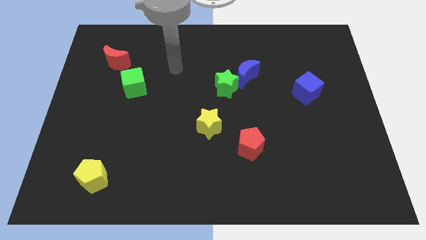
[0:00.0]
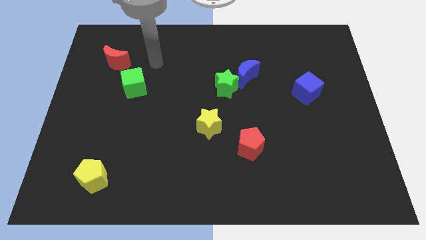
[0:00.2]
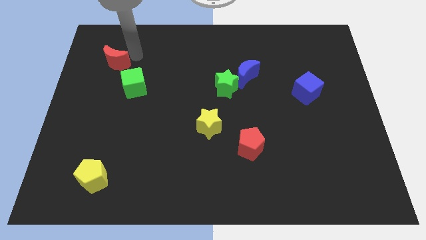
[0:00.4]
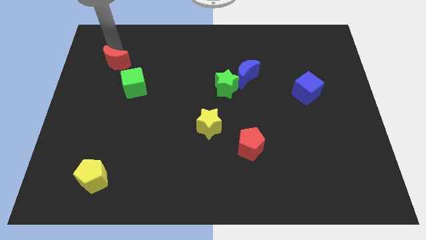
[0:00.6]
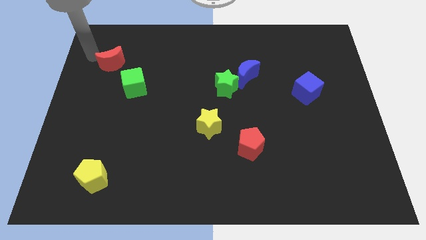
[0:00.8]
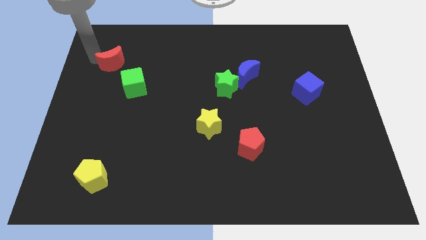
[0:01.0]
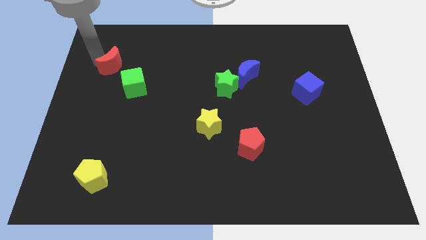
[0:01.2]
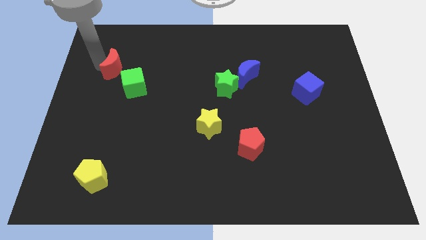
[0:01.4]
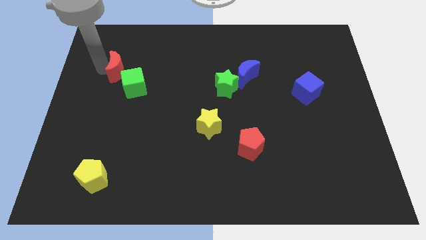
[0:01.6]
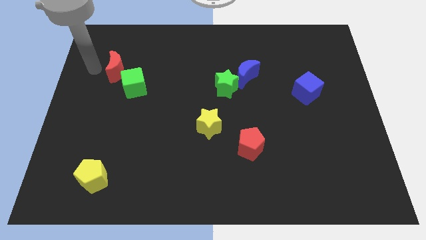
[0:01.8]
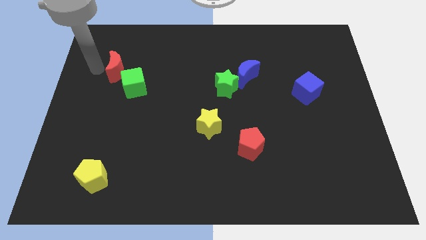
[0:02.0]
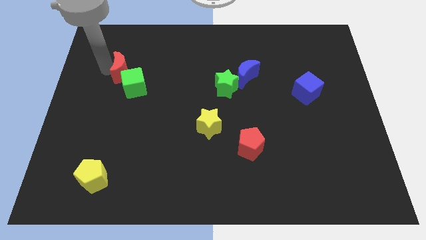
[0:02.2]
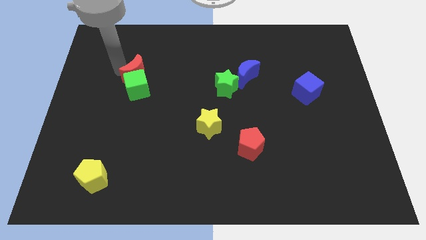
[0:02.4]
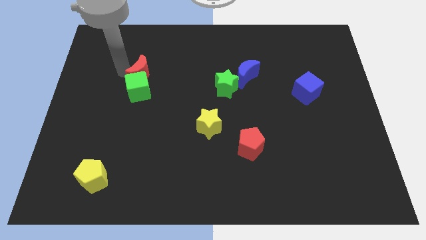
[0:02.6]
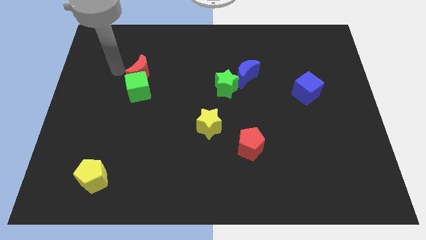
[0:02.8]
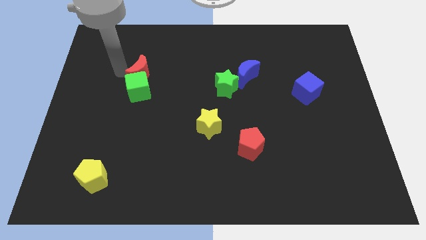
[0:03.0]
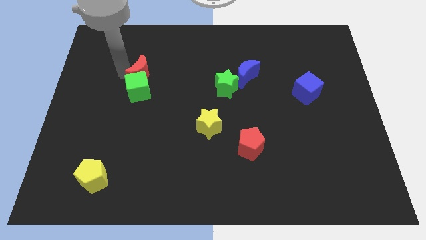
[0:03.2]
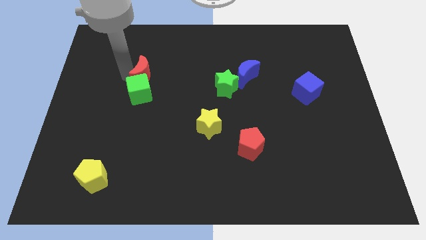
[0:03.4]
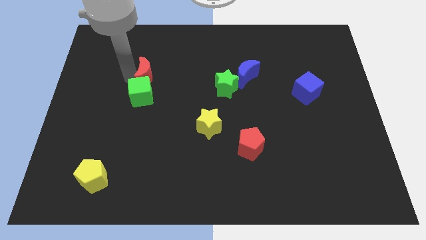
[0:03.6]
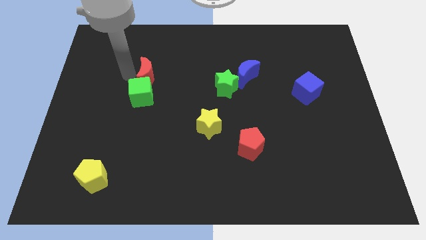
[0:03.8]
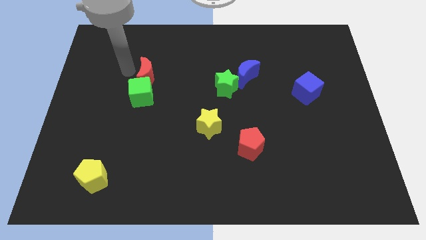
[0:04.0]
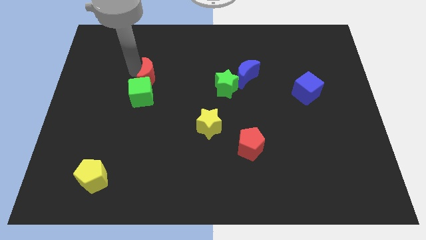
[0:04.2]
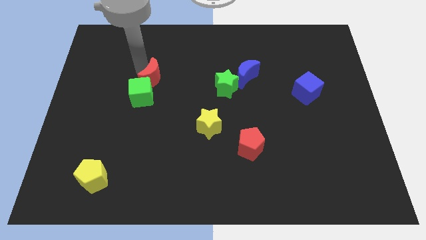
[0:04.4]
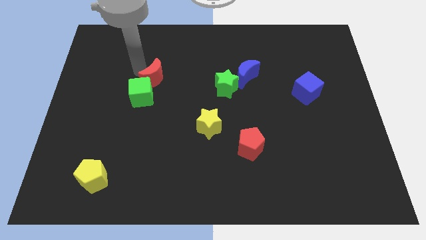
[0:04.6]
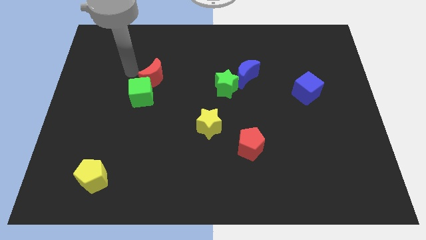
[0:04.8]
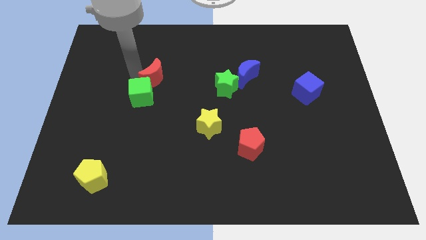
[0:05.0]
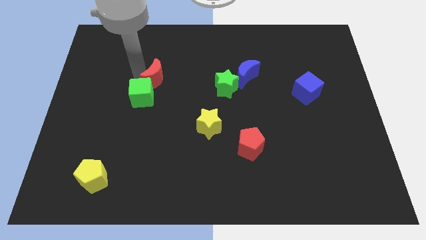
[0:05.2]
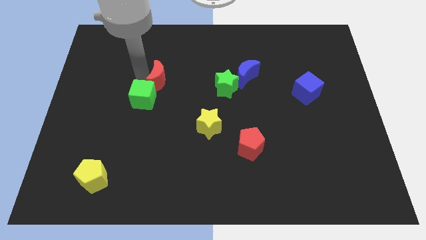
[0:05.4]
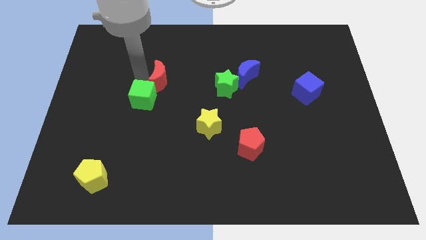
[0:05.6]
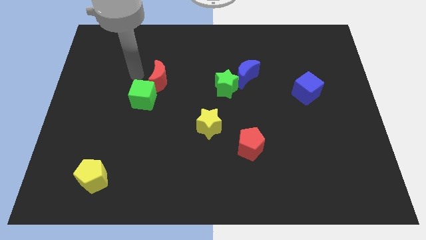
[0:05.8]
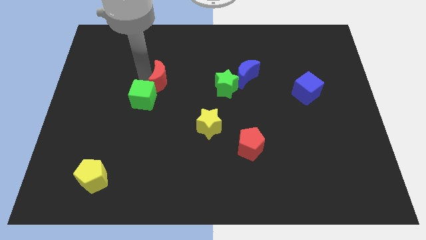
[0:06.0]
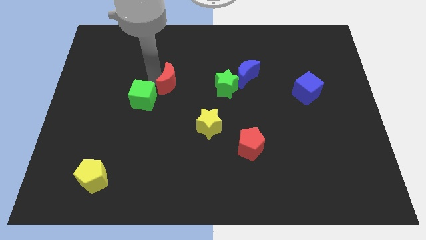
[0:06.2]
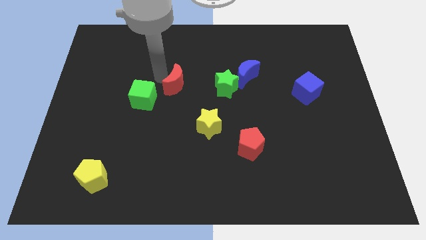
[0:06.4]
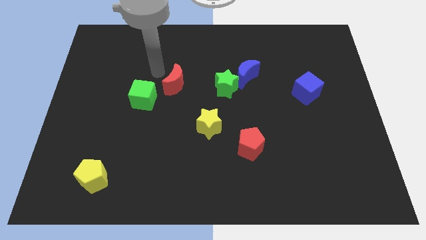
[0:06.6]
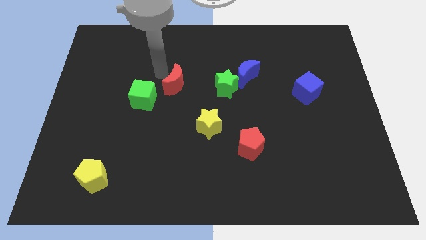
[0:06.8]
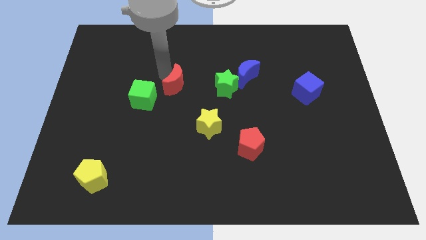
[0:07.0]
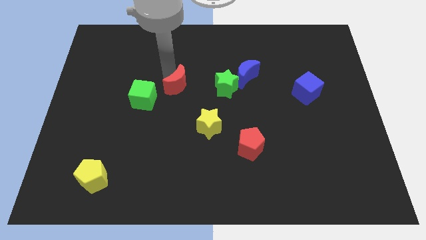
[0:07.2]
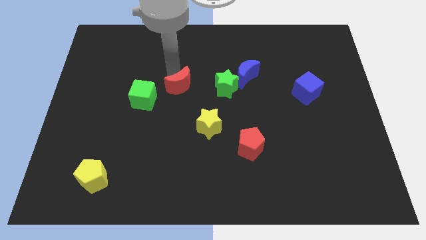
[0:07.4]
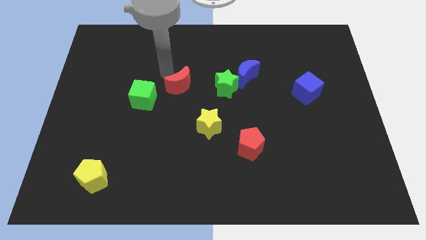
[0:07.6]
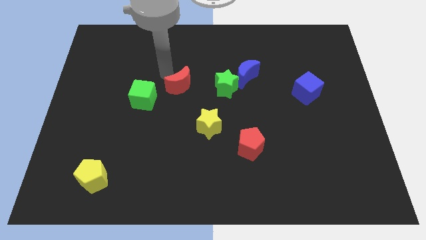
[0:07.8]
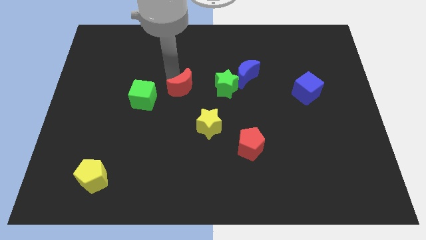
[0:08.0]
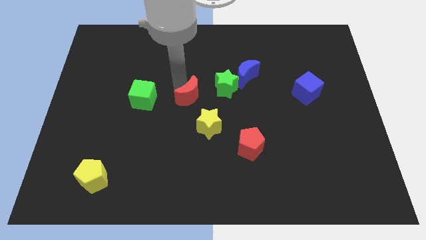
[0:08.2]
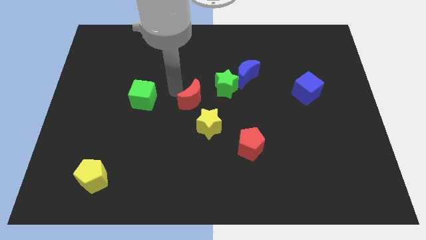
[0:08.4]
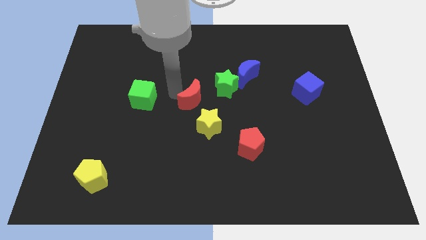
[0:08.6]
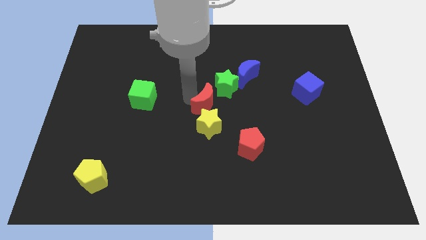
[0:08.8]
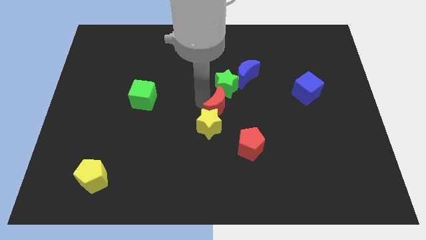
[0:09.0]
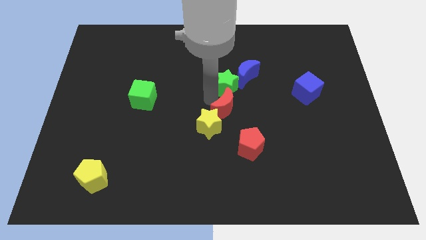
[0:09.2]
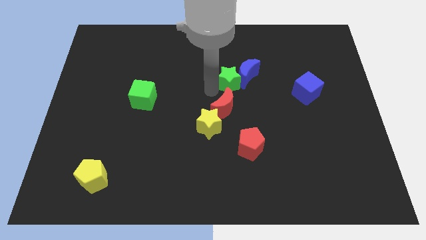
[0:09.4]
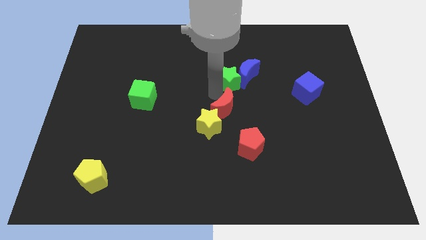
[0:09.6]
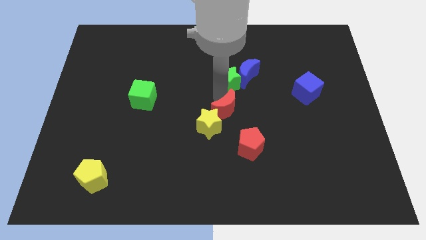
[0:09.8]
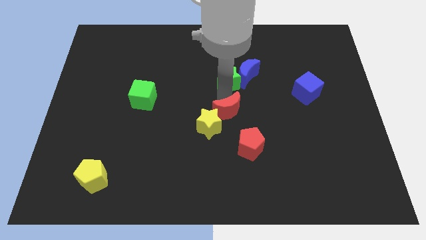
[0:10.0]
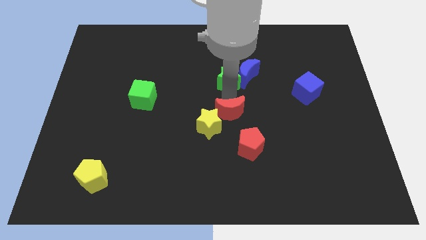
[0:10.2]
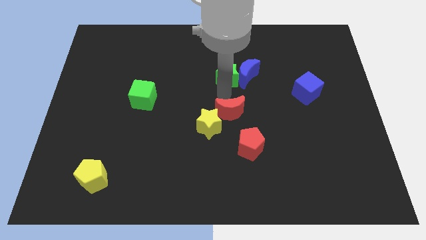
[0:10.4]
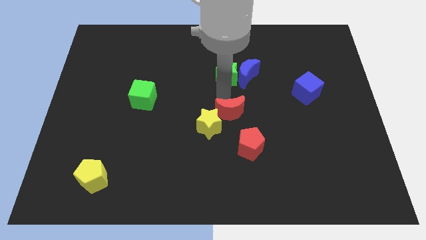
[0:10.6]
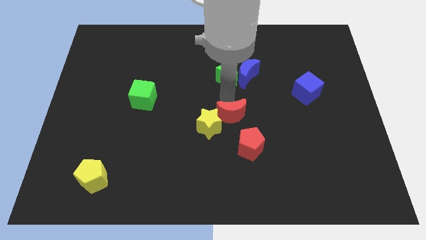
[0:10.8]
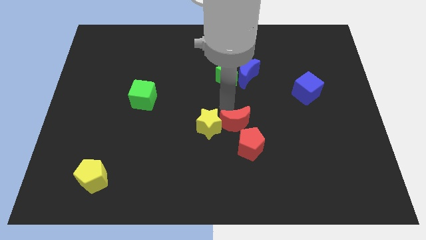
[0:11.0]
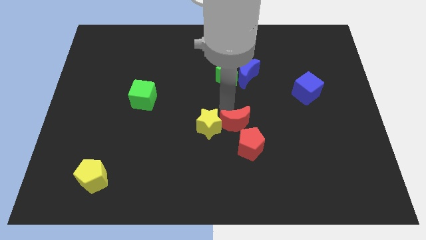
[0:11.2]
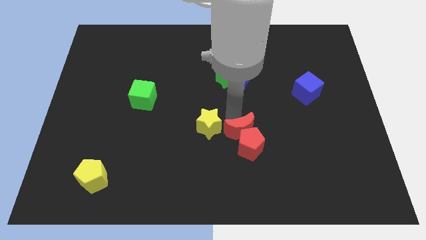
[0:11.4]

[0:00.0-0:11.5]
push the red moon next to the red pentagon

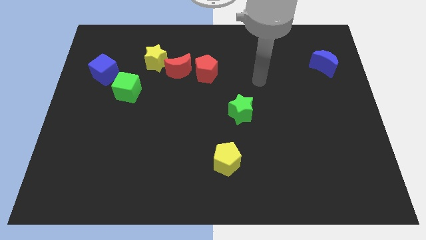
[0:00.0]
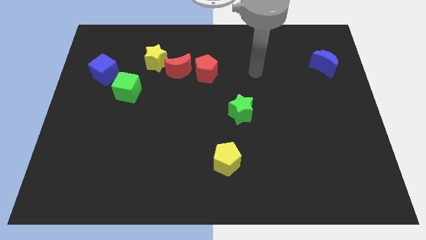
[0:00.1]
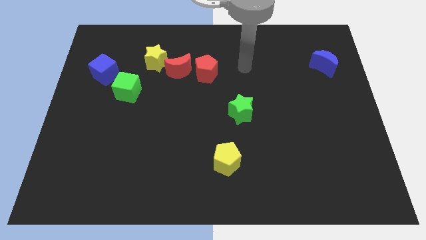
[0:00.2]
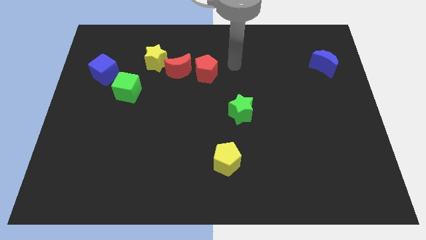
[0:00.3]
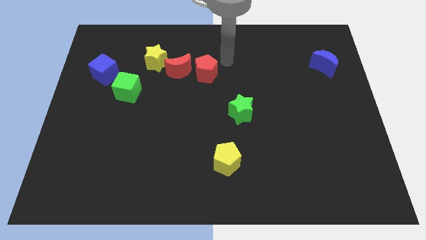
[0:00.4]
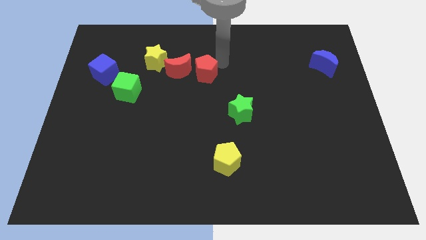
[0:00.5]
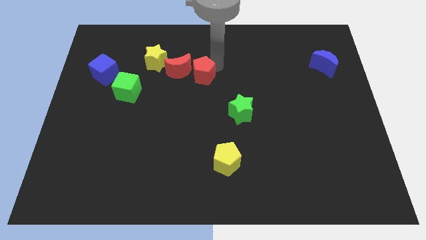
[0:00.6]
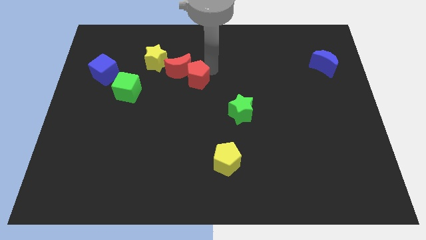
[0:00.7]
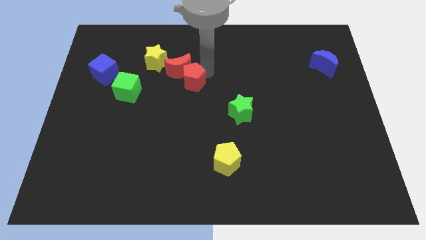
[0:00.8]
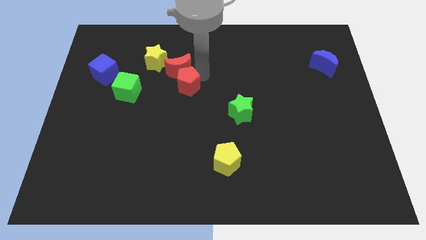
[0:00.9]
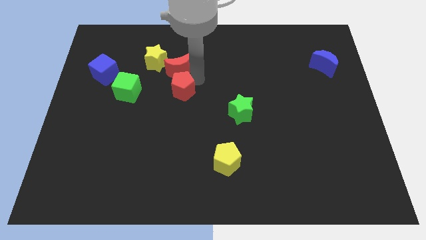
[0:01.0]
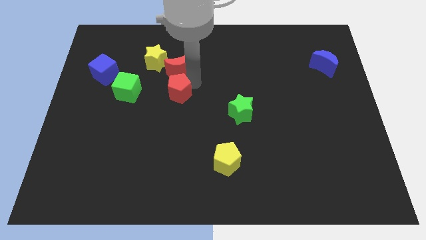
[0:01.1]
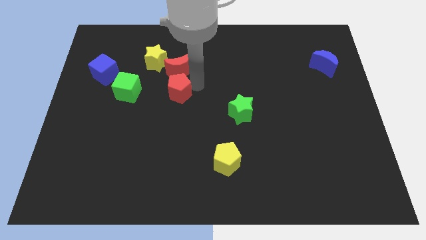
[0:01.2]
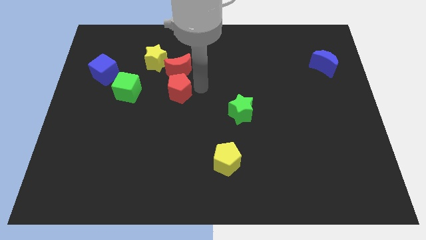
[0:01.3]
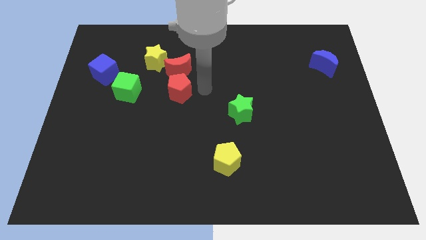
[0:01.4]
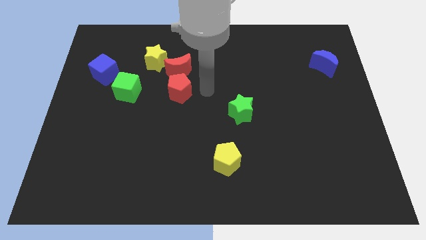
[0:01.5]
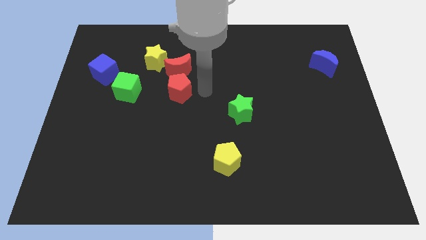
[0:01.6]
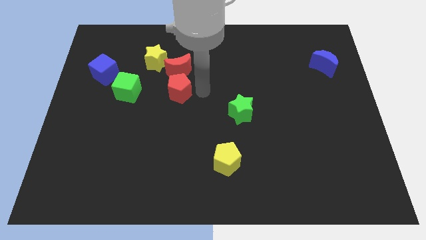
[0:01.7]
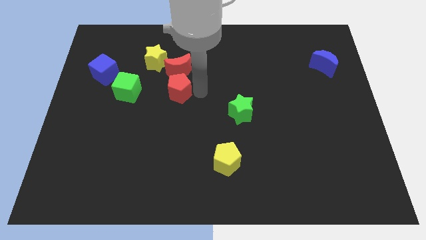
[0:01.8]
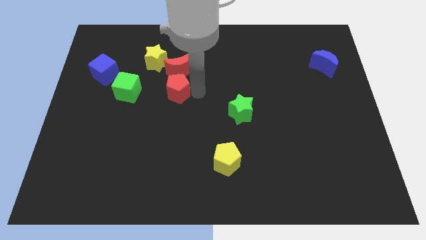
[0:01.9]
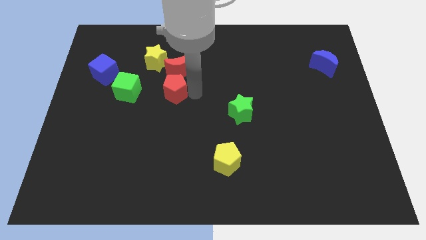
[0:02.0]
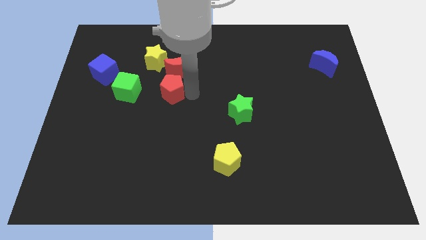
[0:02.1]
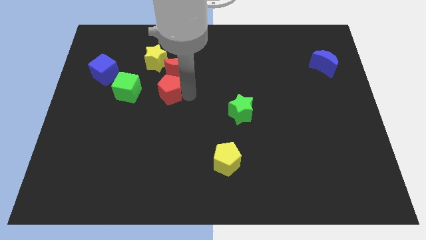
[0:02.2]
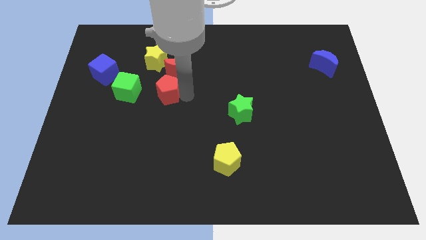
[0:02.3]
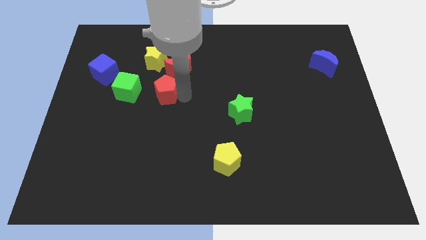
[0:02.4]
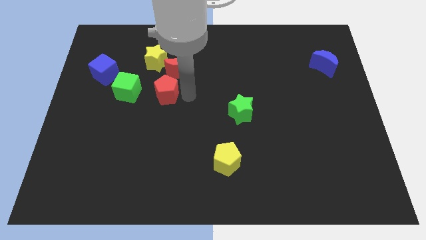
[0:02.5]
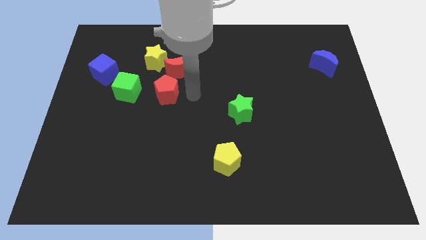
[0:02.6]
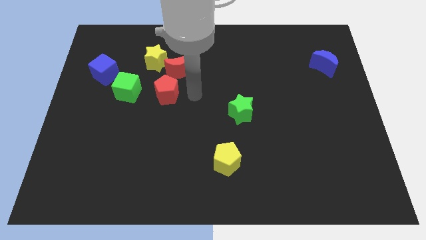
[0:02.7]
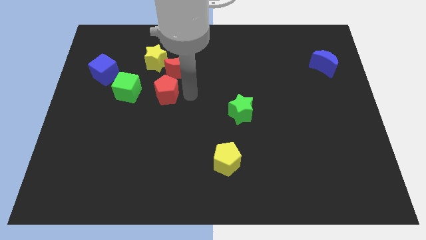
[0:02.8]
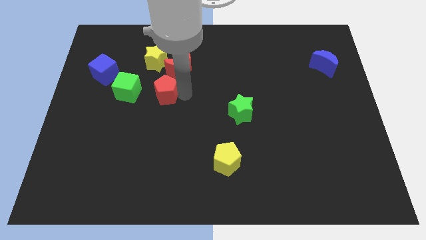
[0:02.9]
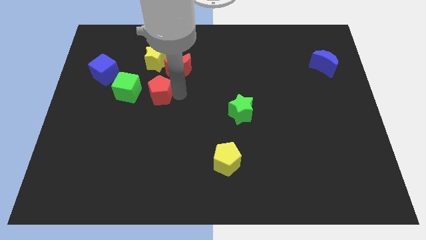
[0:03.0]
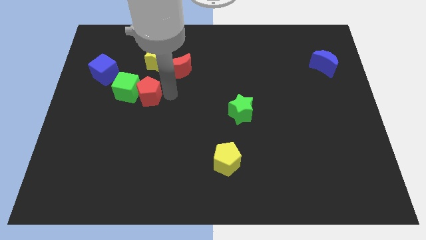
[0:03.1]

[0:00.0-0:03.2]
move the red pentagon next to the green cube
